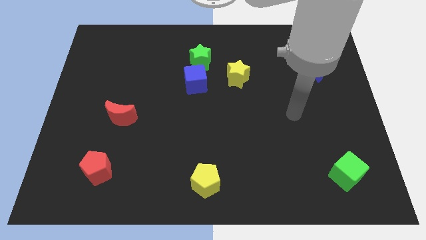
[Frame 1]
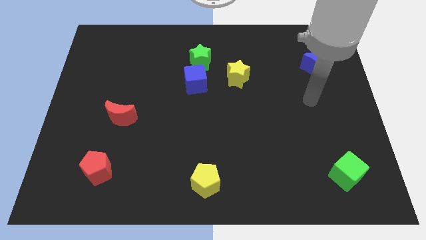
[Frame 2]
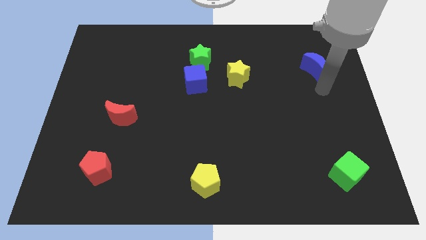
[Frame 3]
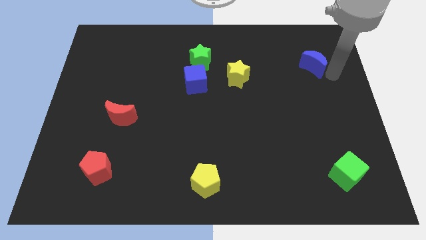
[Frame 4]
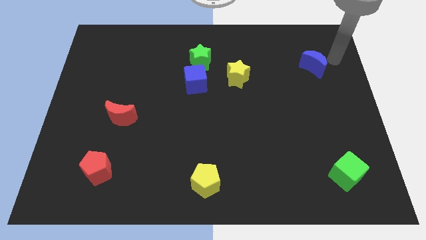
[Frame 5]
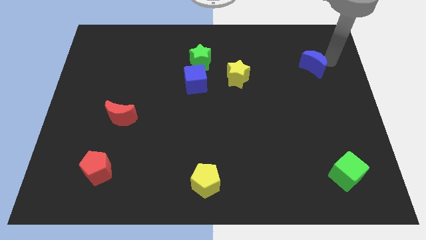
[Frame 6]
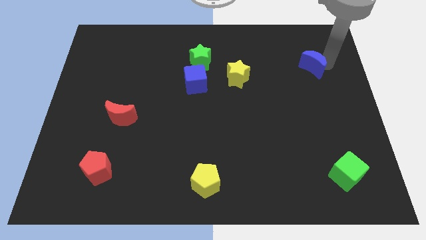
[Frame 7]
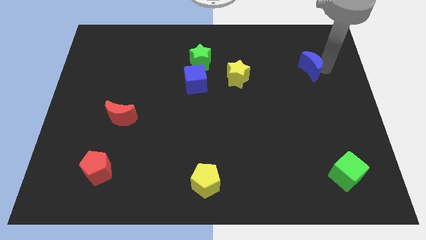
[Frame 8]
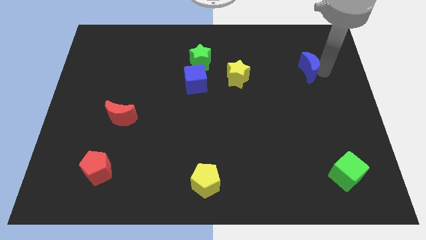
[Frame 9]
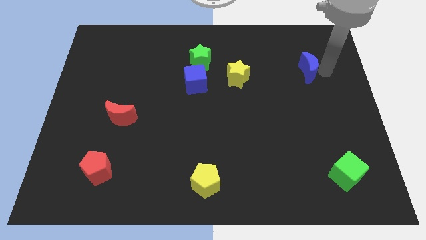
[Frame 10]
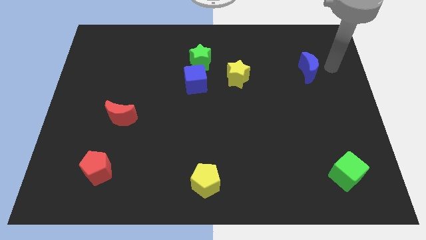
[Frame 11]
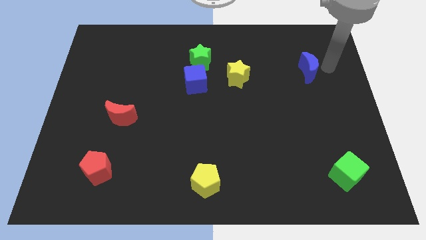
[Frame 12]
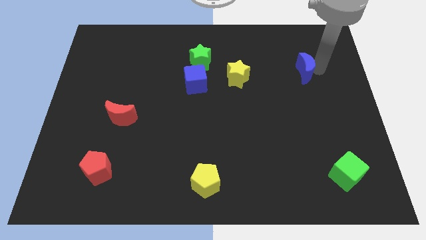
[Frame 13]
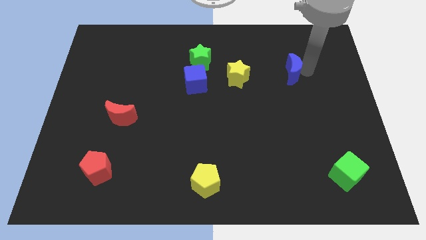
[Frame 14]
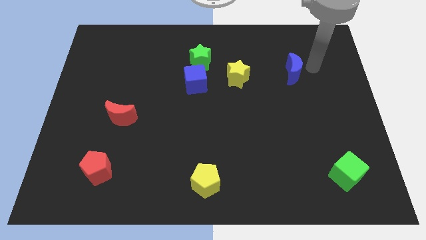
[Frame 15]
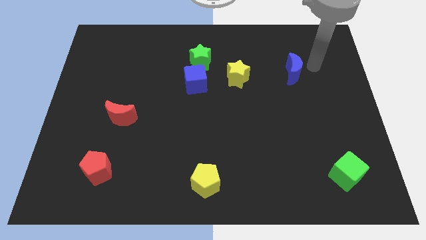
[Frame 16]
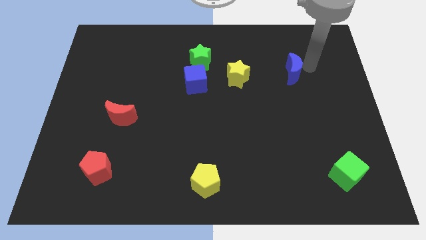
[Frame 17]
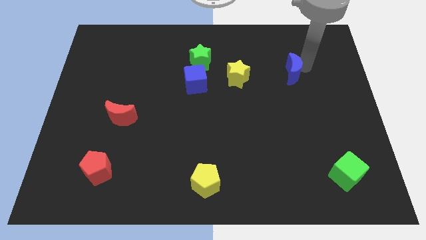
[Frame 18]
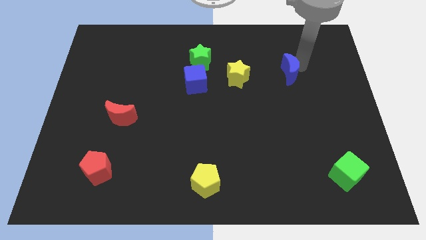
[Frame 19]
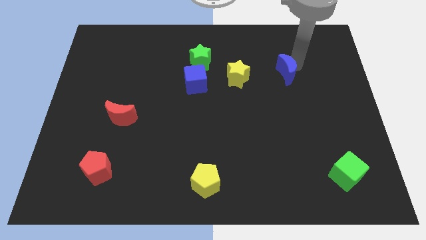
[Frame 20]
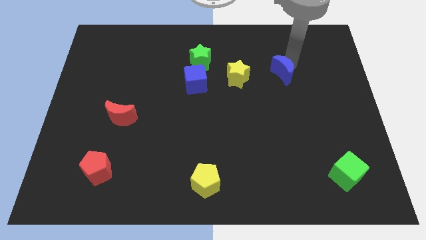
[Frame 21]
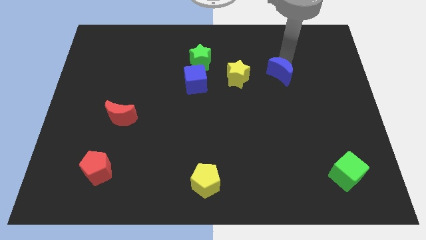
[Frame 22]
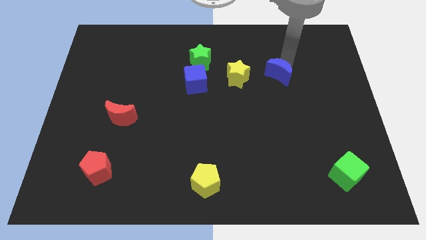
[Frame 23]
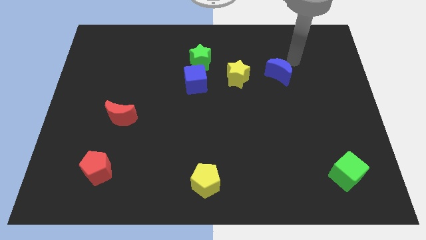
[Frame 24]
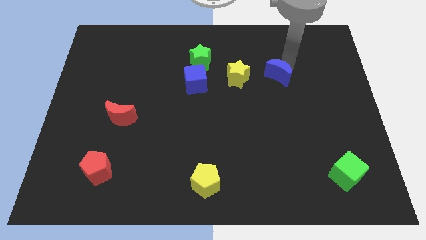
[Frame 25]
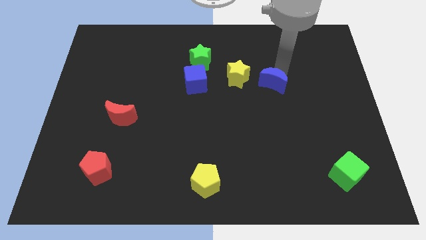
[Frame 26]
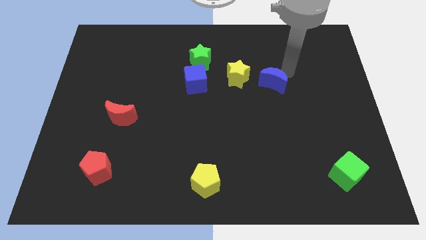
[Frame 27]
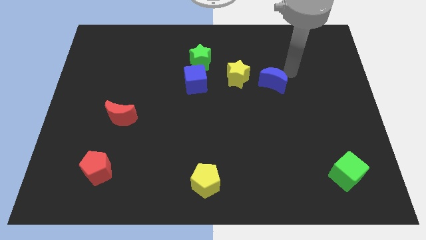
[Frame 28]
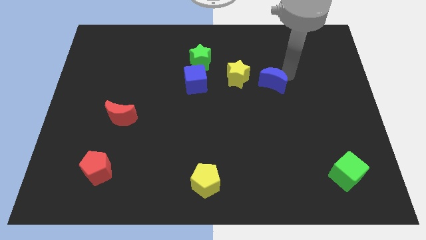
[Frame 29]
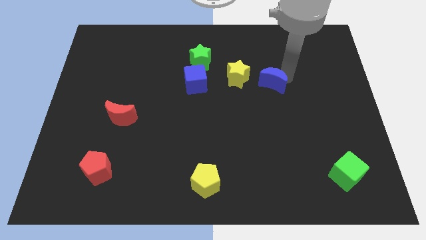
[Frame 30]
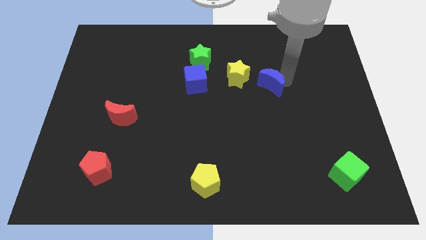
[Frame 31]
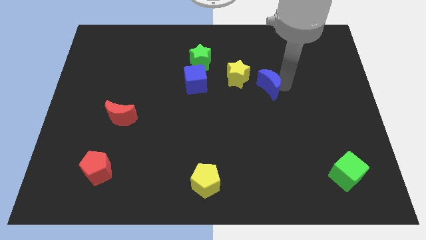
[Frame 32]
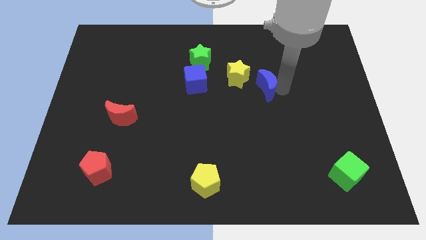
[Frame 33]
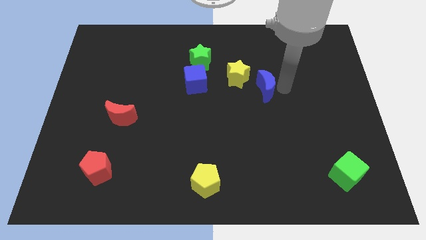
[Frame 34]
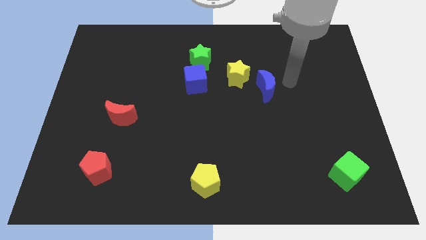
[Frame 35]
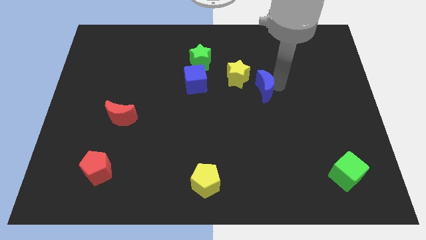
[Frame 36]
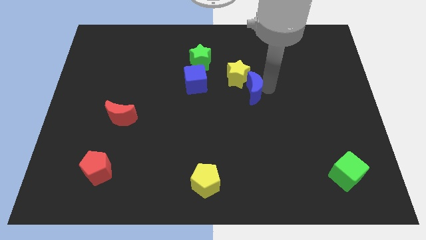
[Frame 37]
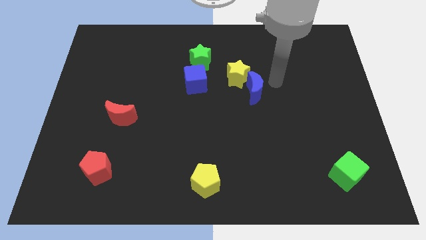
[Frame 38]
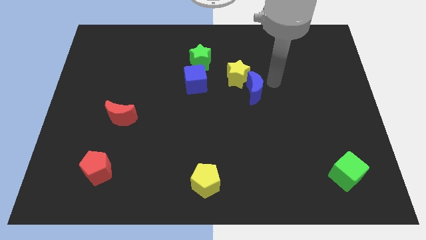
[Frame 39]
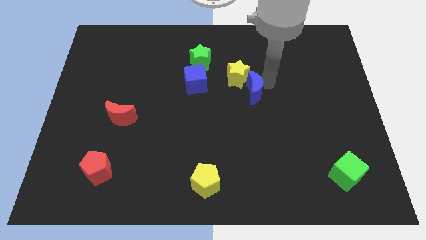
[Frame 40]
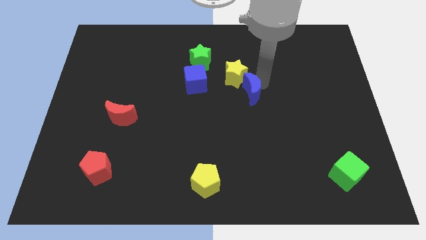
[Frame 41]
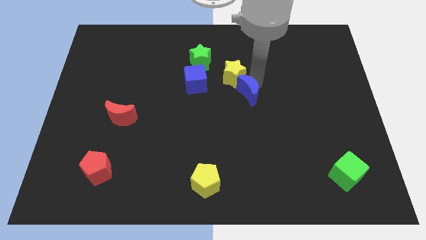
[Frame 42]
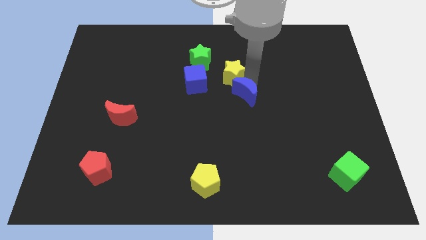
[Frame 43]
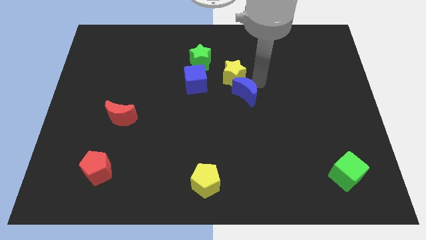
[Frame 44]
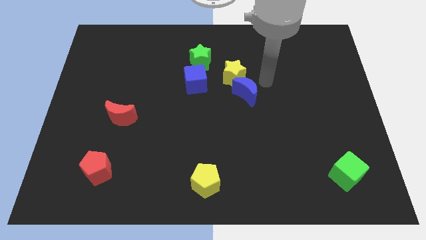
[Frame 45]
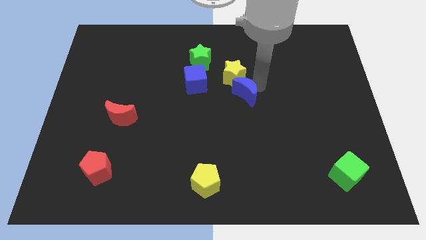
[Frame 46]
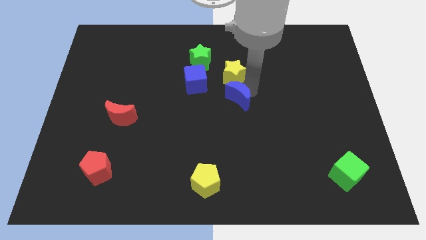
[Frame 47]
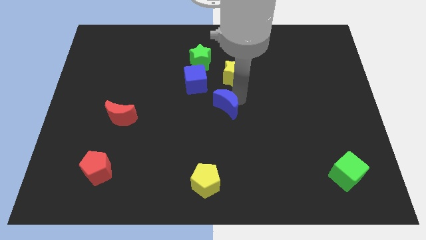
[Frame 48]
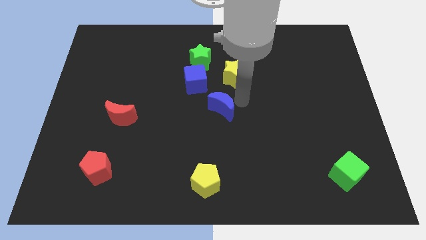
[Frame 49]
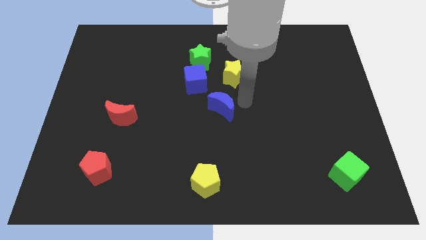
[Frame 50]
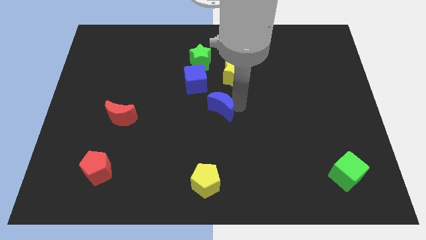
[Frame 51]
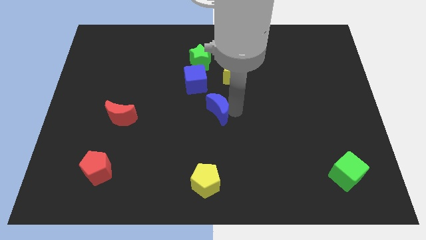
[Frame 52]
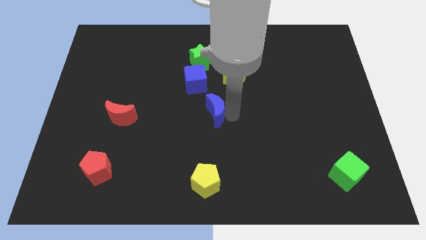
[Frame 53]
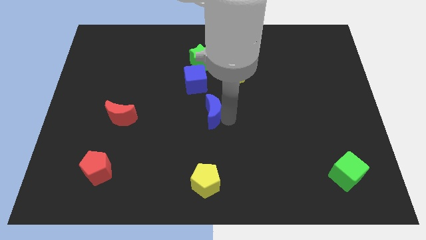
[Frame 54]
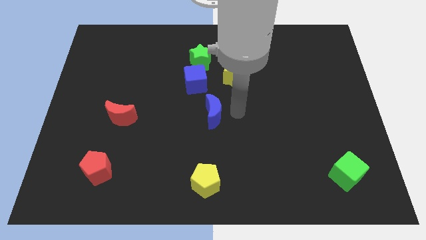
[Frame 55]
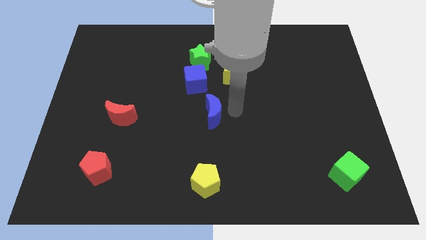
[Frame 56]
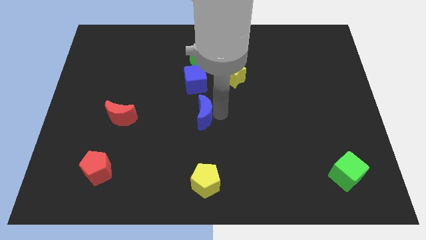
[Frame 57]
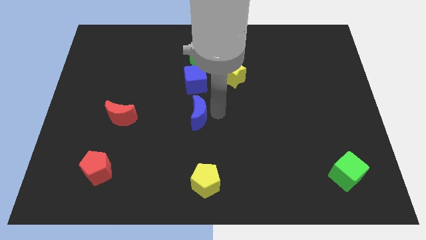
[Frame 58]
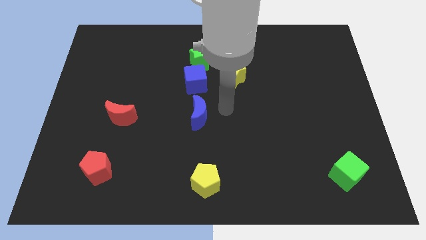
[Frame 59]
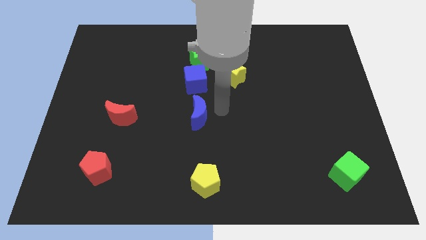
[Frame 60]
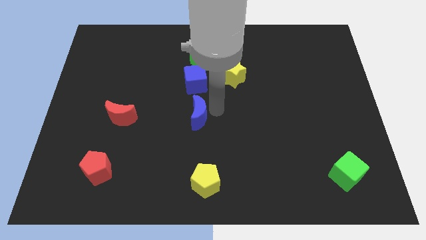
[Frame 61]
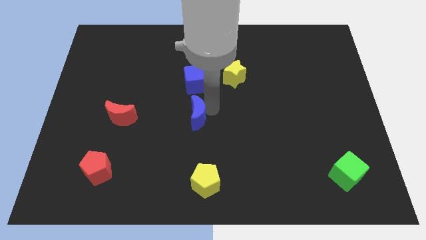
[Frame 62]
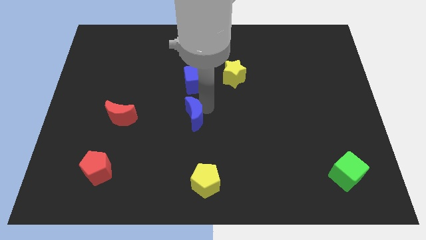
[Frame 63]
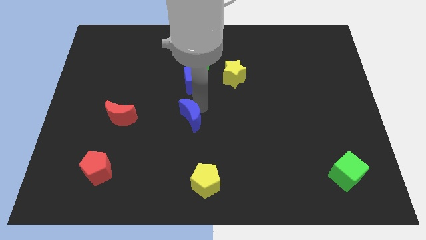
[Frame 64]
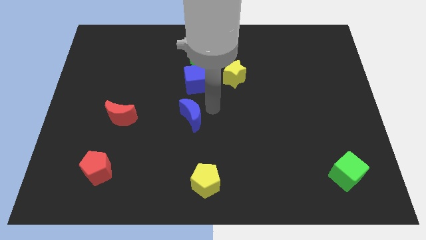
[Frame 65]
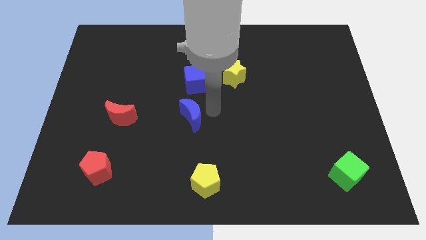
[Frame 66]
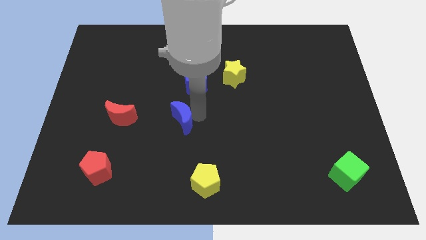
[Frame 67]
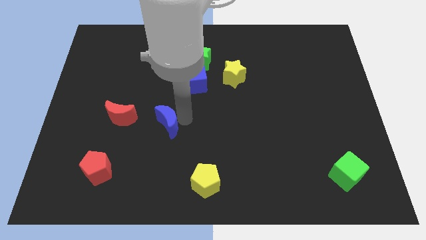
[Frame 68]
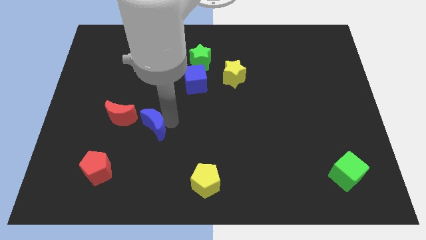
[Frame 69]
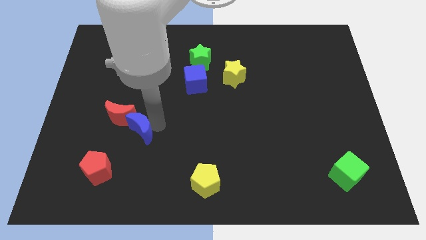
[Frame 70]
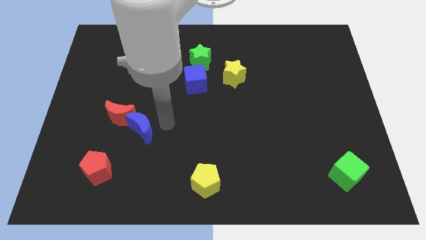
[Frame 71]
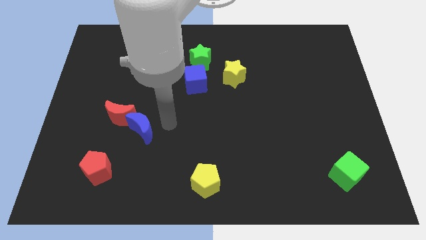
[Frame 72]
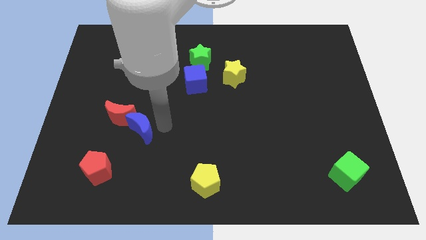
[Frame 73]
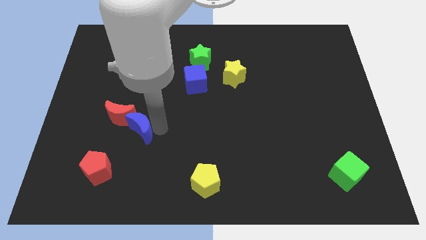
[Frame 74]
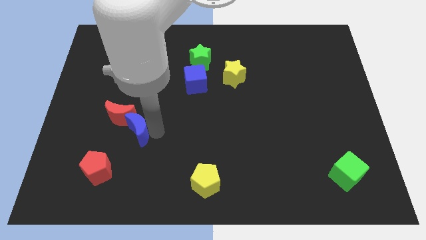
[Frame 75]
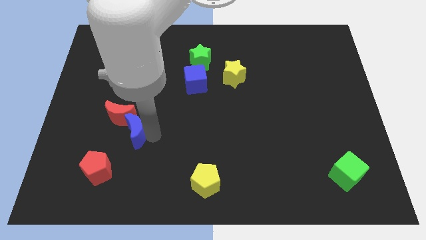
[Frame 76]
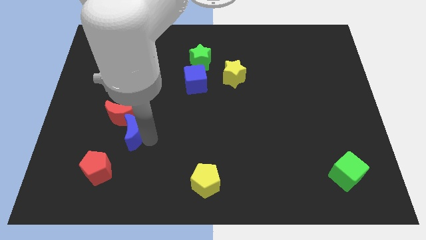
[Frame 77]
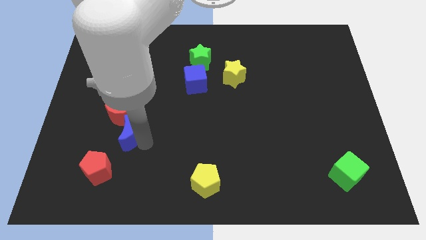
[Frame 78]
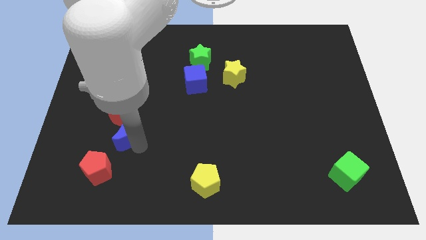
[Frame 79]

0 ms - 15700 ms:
slide the blue moon to the top side of the red pentagon
